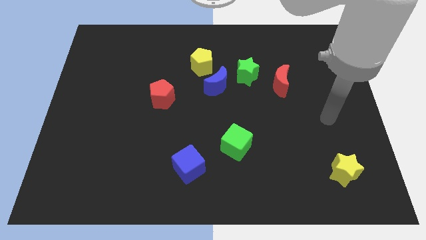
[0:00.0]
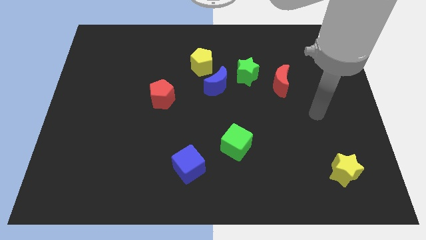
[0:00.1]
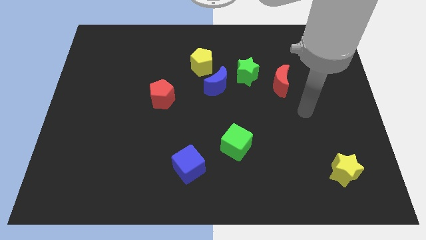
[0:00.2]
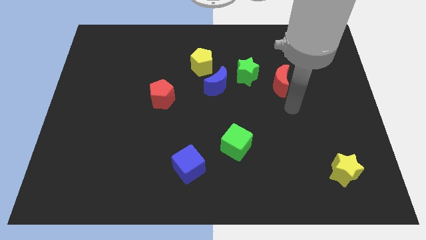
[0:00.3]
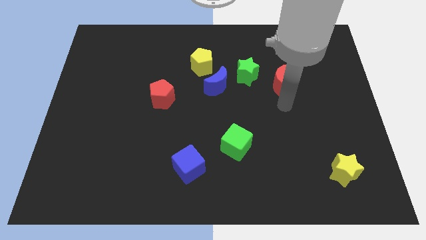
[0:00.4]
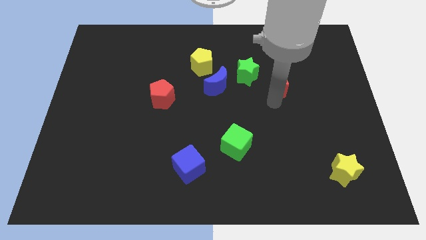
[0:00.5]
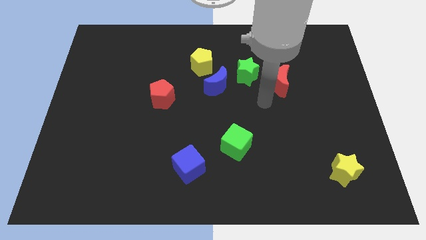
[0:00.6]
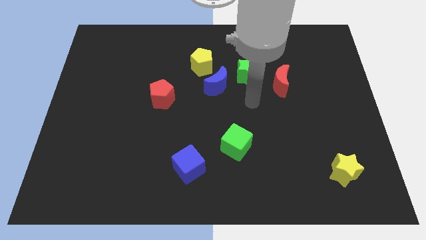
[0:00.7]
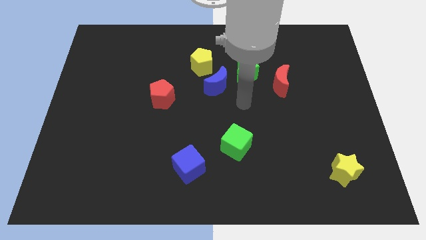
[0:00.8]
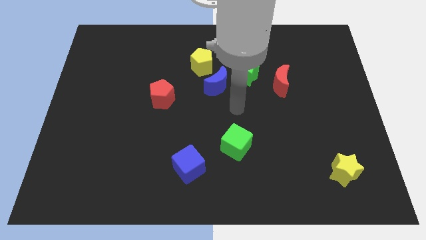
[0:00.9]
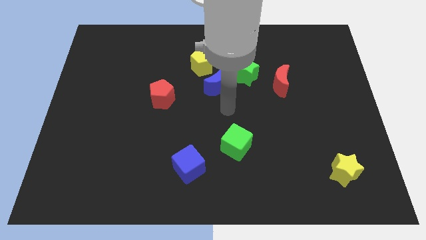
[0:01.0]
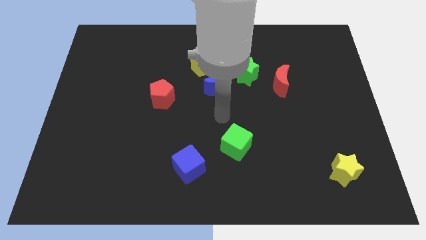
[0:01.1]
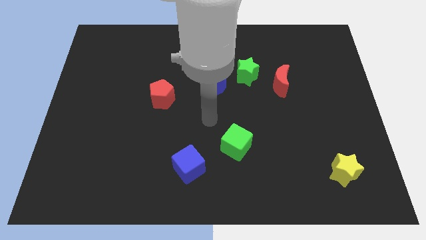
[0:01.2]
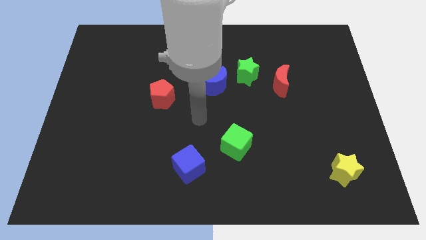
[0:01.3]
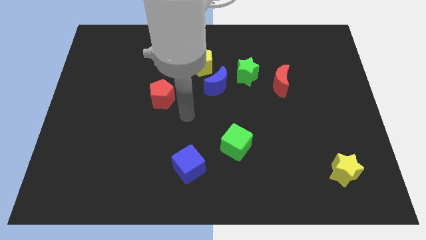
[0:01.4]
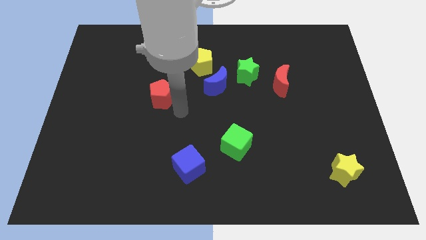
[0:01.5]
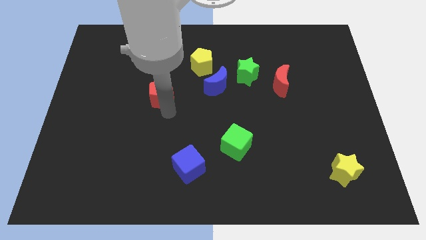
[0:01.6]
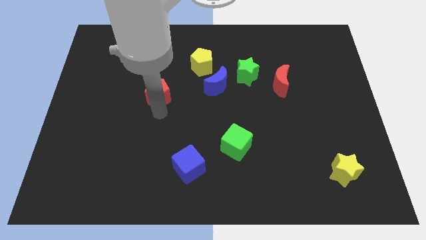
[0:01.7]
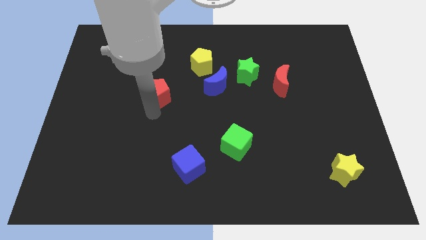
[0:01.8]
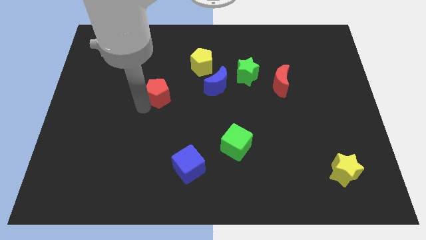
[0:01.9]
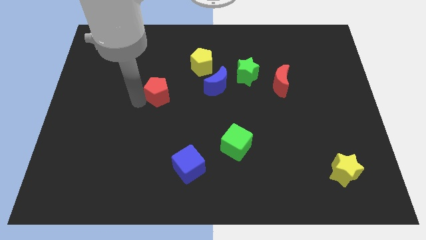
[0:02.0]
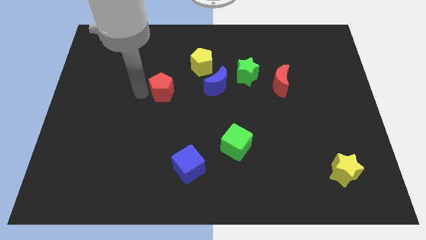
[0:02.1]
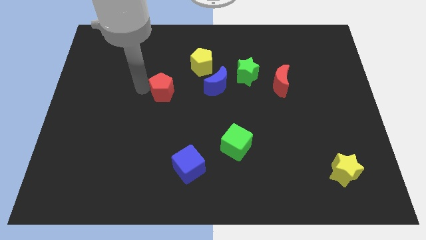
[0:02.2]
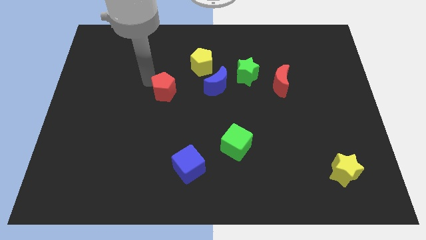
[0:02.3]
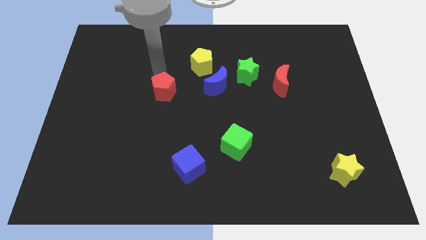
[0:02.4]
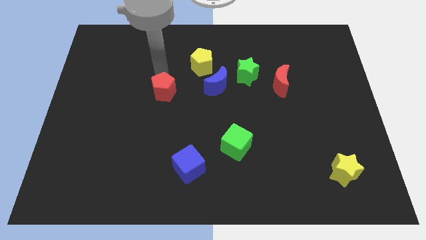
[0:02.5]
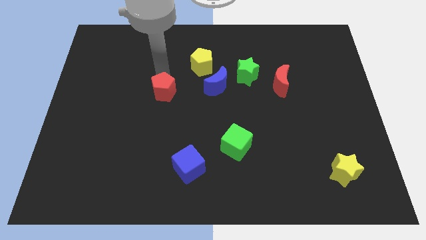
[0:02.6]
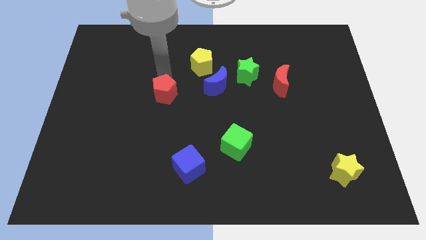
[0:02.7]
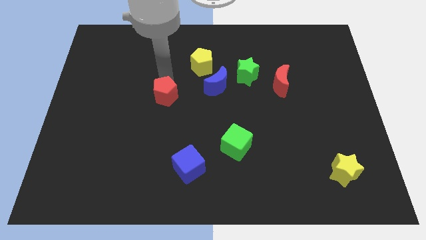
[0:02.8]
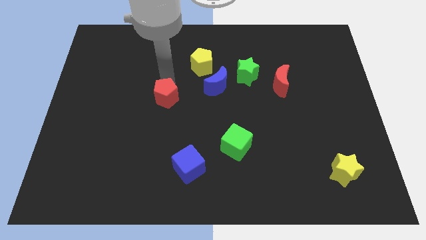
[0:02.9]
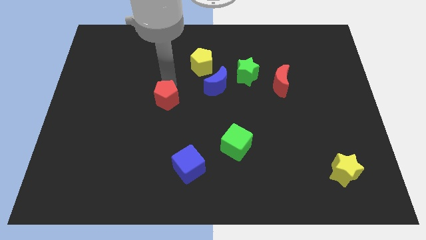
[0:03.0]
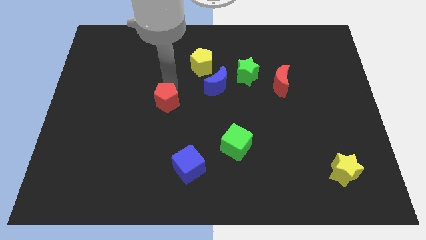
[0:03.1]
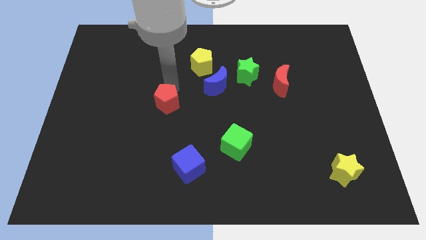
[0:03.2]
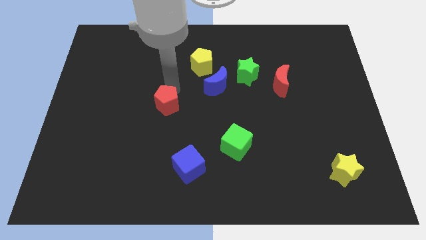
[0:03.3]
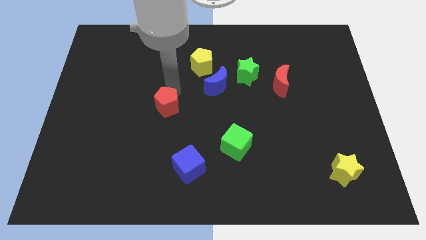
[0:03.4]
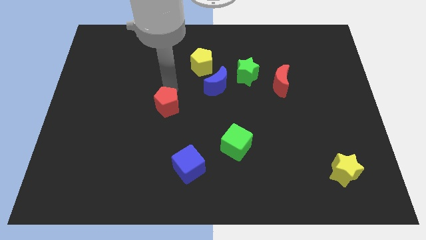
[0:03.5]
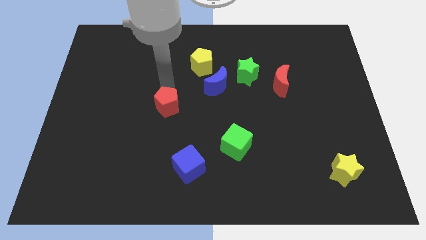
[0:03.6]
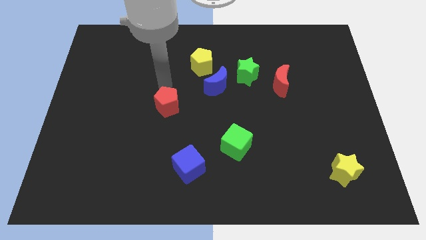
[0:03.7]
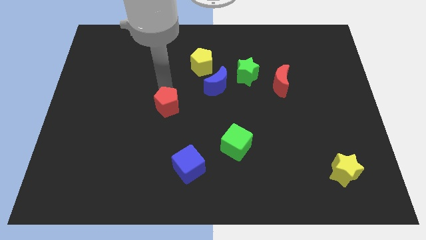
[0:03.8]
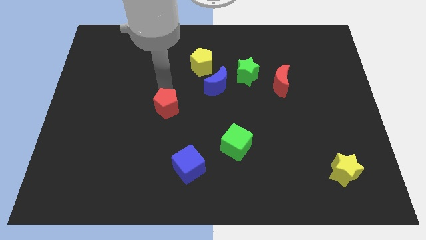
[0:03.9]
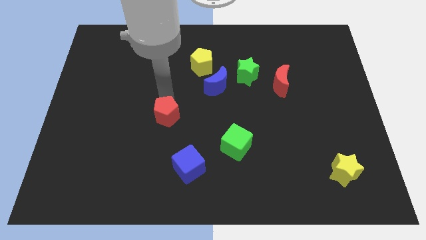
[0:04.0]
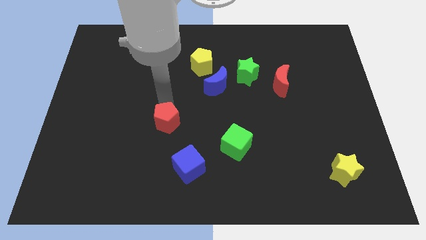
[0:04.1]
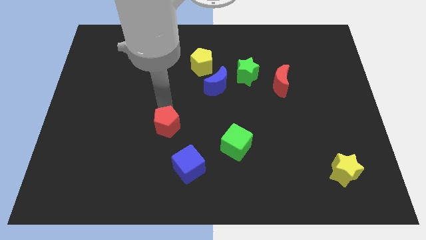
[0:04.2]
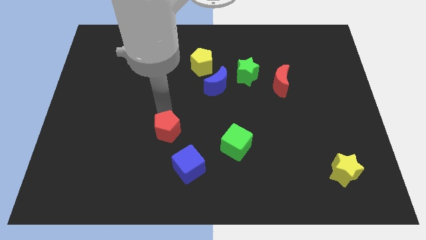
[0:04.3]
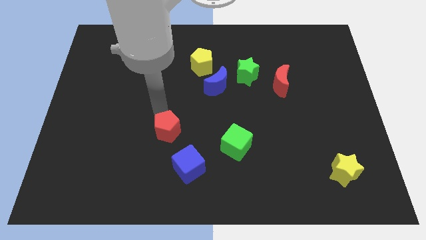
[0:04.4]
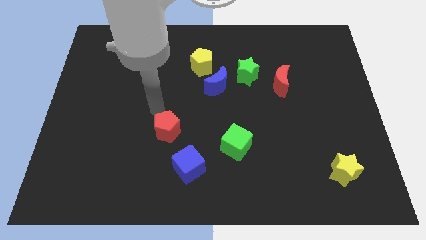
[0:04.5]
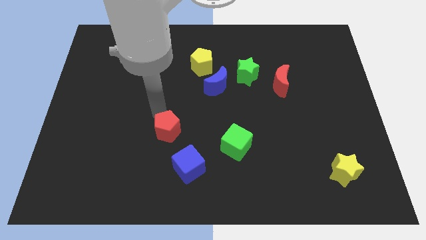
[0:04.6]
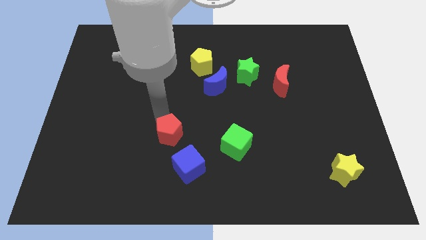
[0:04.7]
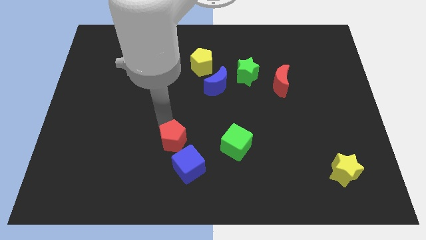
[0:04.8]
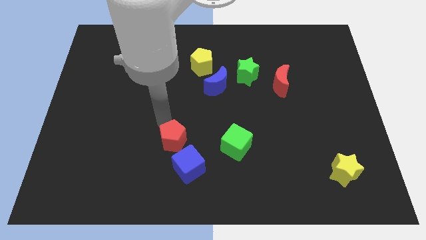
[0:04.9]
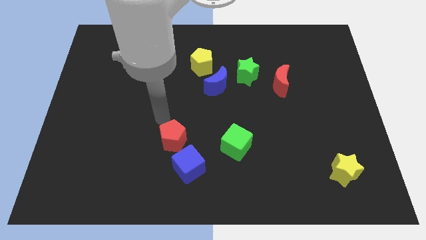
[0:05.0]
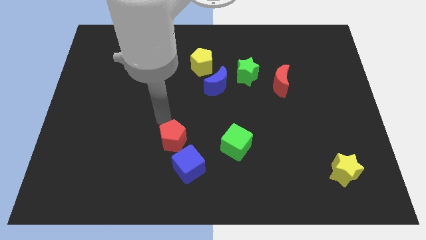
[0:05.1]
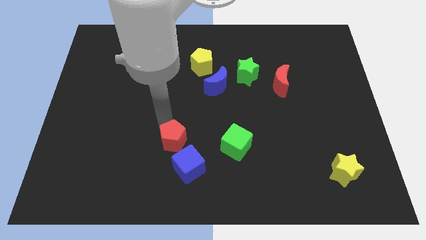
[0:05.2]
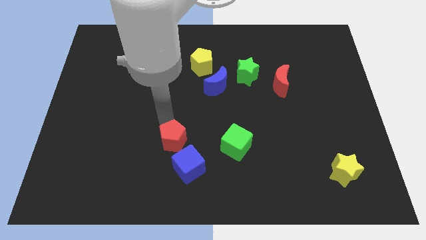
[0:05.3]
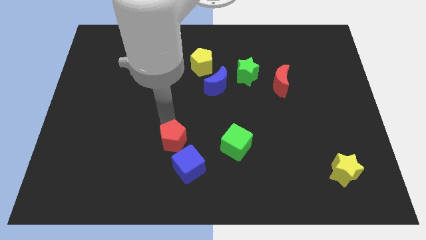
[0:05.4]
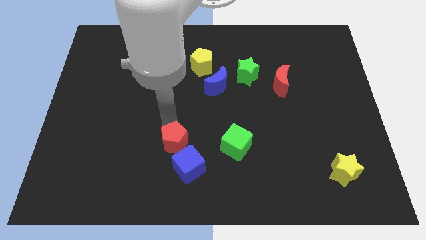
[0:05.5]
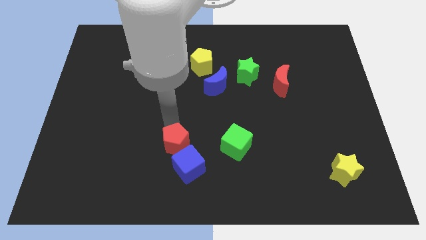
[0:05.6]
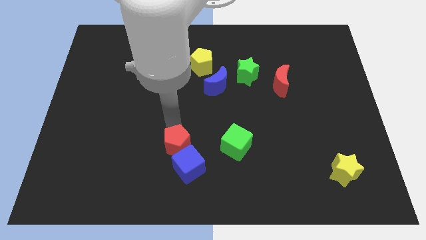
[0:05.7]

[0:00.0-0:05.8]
push the red pentagon next to the blue cube

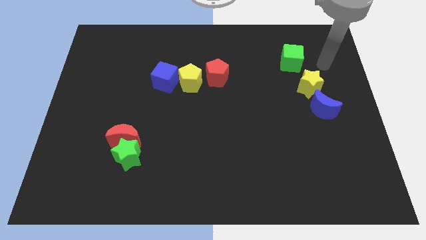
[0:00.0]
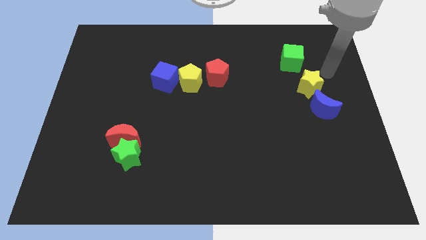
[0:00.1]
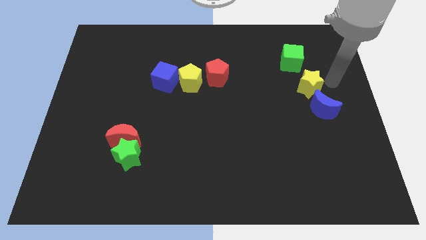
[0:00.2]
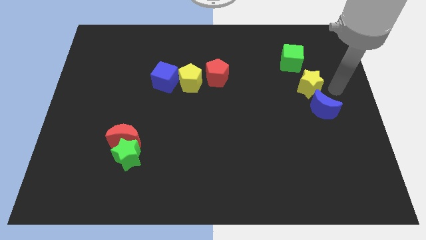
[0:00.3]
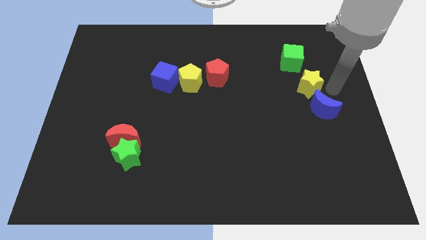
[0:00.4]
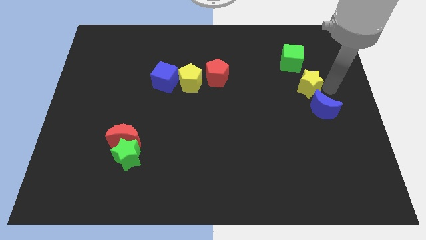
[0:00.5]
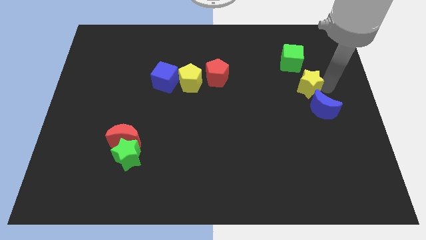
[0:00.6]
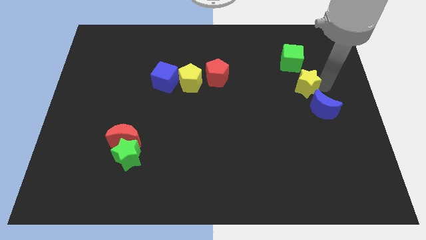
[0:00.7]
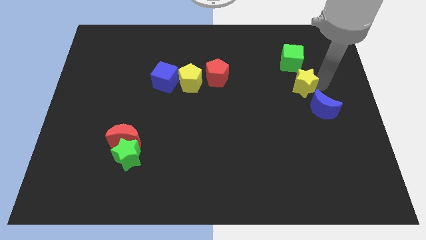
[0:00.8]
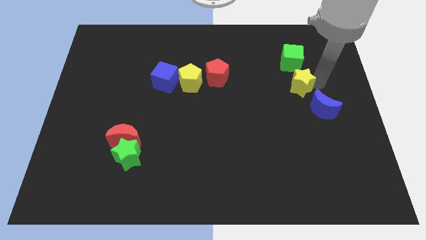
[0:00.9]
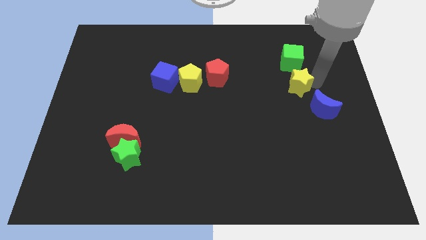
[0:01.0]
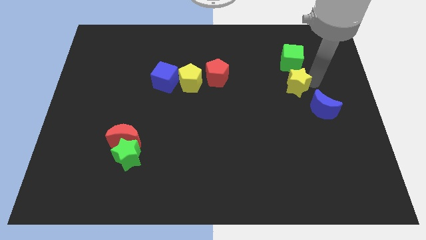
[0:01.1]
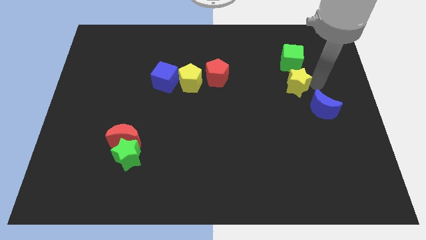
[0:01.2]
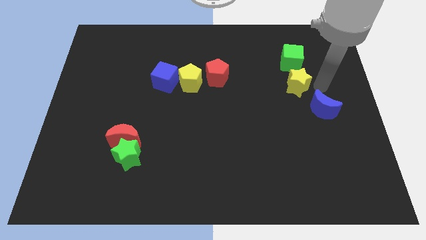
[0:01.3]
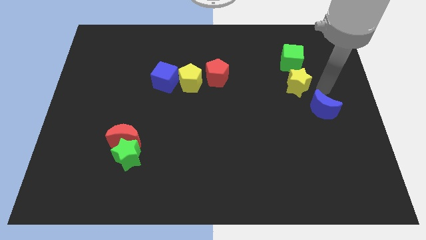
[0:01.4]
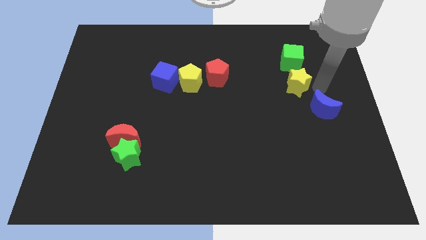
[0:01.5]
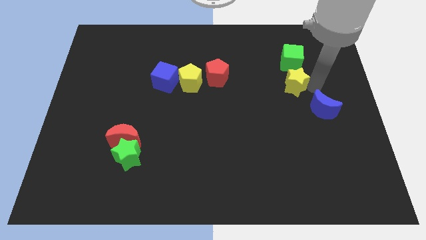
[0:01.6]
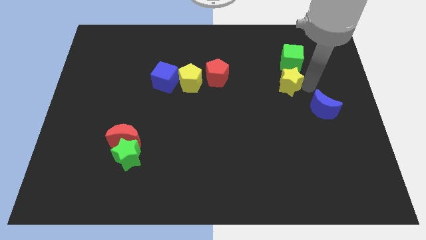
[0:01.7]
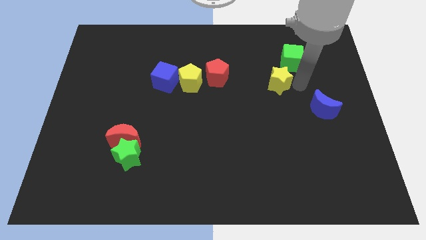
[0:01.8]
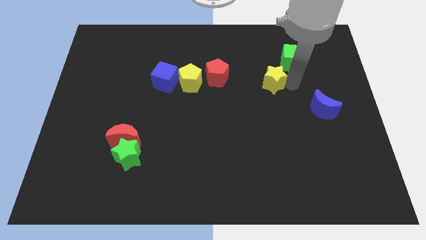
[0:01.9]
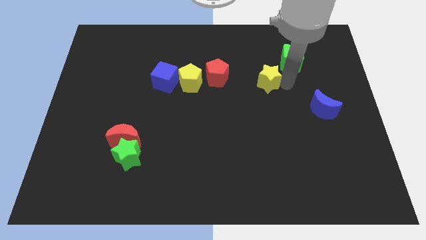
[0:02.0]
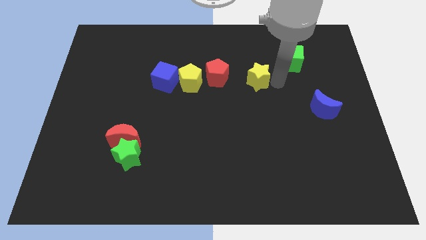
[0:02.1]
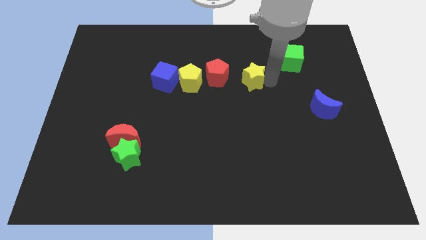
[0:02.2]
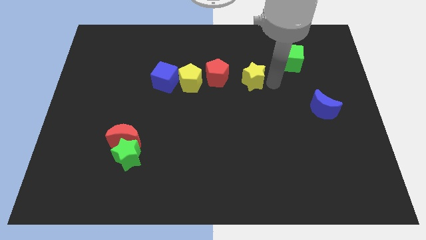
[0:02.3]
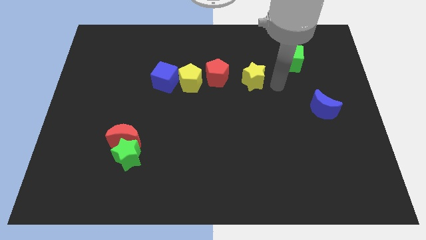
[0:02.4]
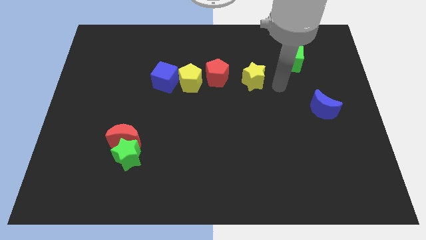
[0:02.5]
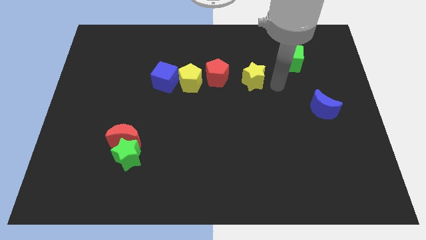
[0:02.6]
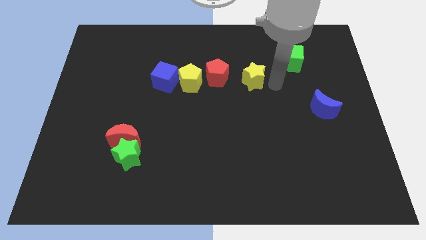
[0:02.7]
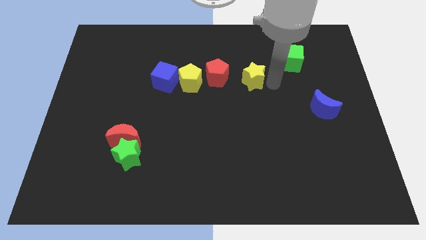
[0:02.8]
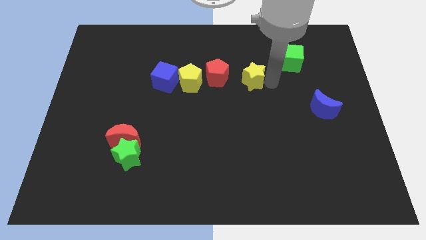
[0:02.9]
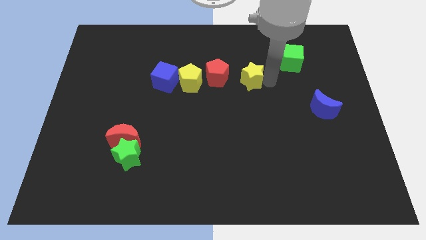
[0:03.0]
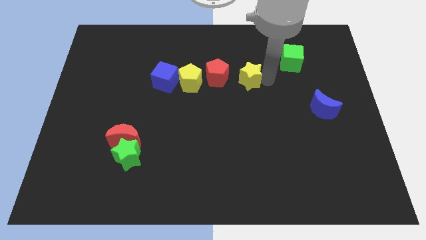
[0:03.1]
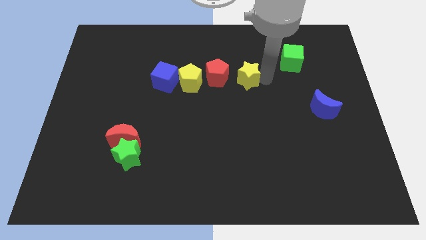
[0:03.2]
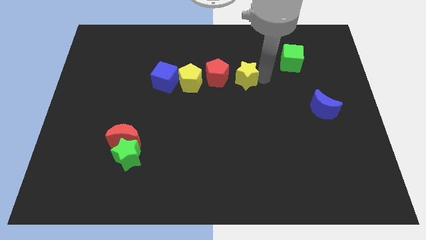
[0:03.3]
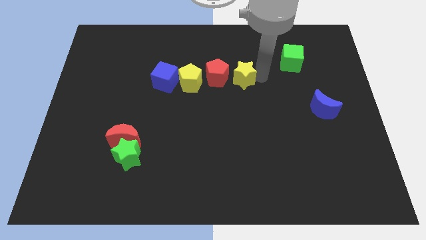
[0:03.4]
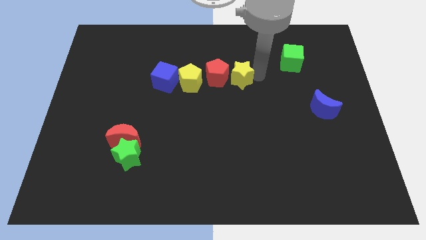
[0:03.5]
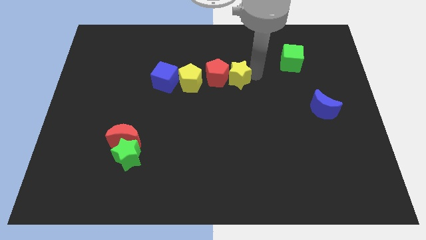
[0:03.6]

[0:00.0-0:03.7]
move the yellow star towards the red pentagon
